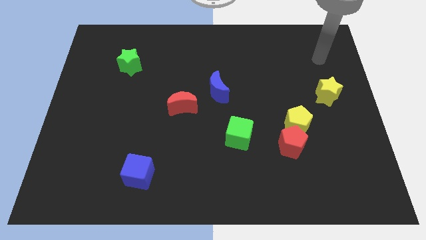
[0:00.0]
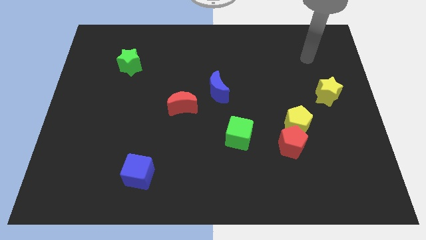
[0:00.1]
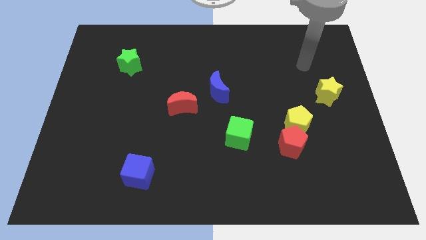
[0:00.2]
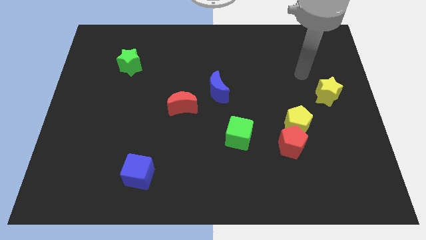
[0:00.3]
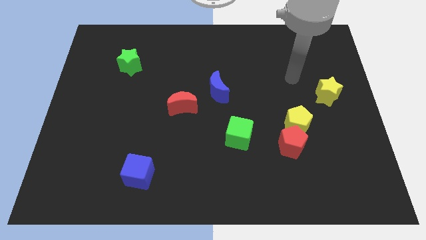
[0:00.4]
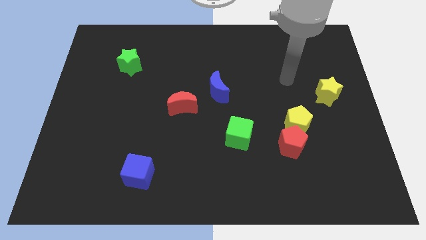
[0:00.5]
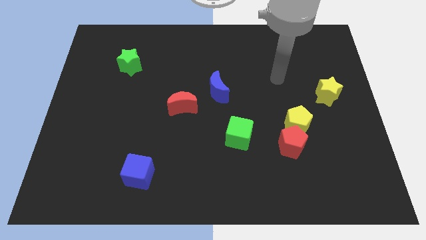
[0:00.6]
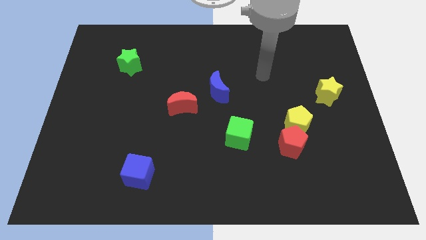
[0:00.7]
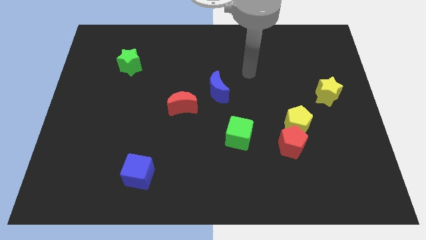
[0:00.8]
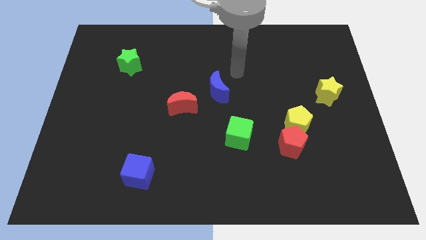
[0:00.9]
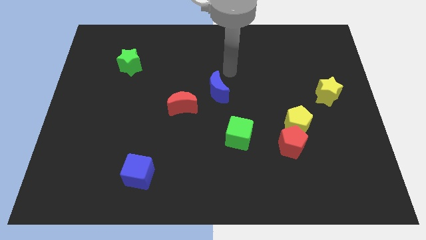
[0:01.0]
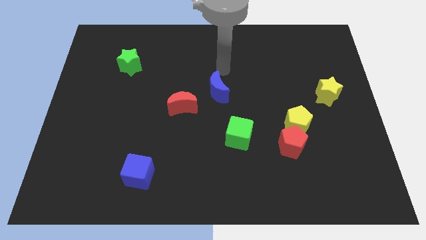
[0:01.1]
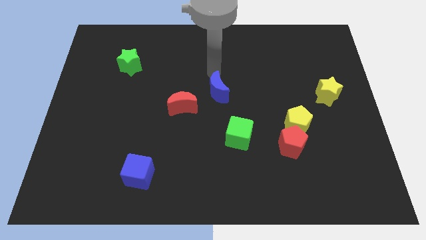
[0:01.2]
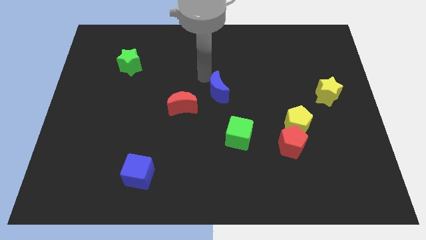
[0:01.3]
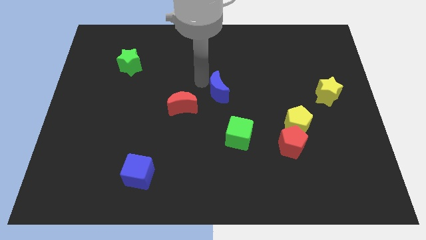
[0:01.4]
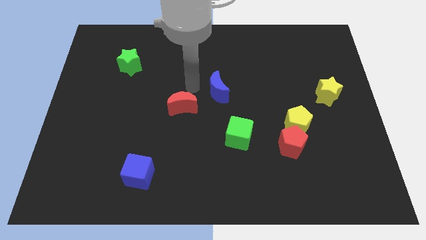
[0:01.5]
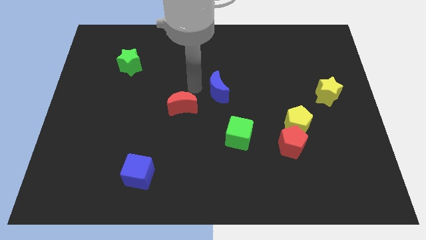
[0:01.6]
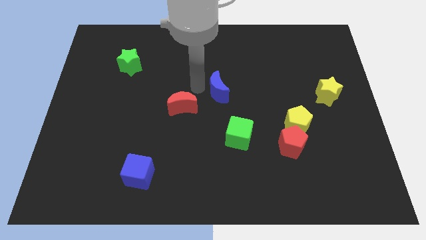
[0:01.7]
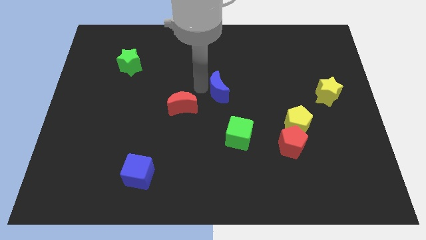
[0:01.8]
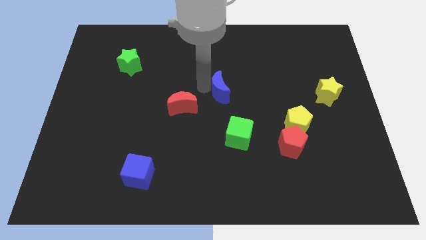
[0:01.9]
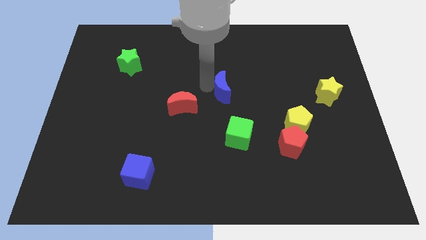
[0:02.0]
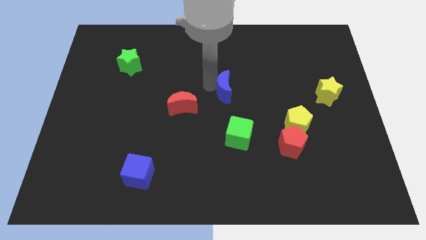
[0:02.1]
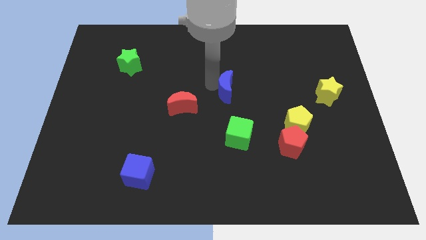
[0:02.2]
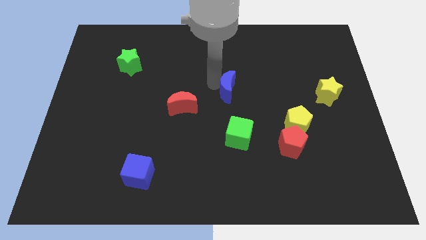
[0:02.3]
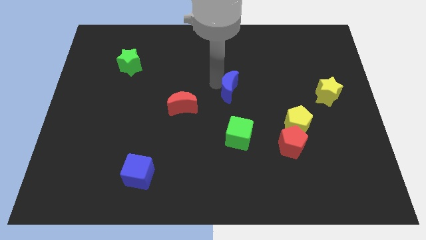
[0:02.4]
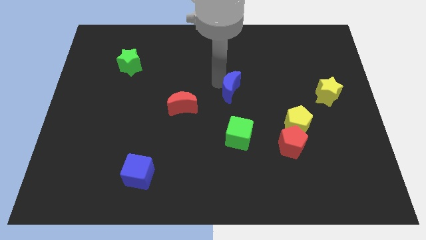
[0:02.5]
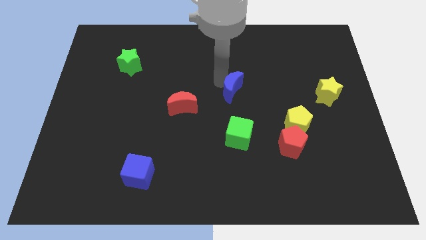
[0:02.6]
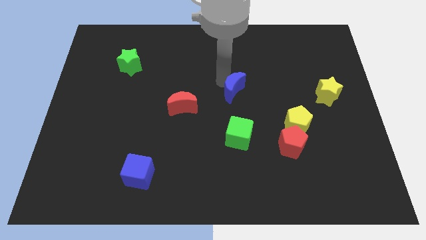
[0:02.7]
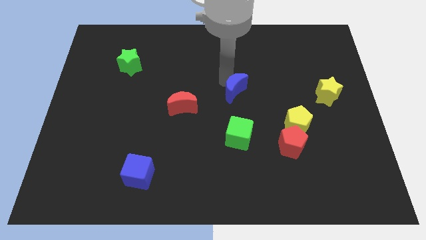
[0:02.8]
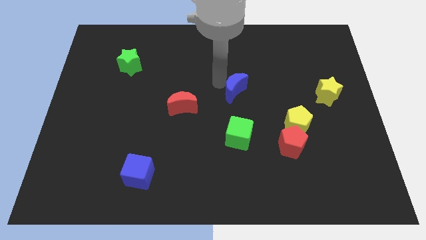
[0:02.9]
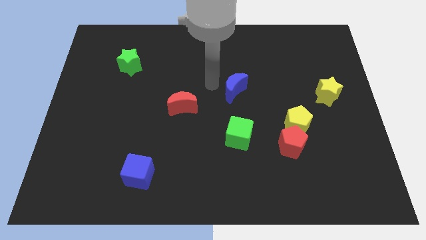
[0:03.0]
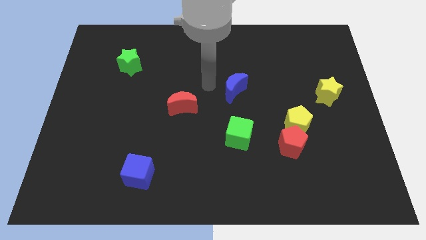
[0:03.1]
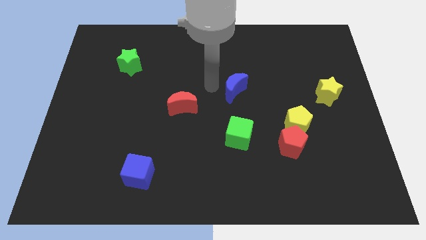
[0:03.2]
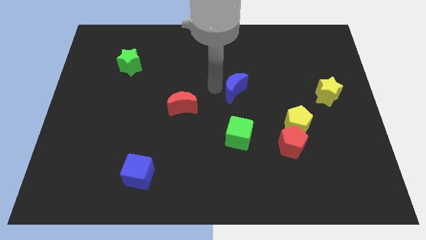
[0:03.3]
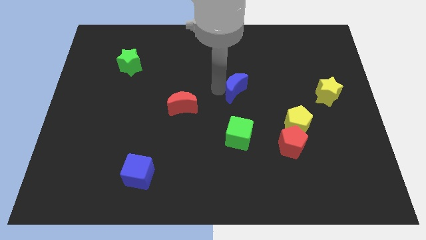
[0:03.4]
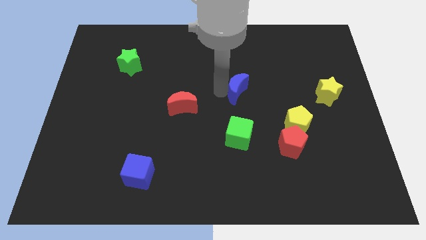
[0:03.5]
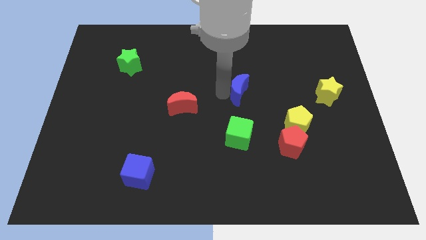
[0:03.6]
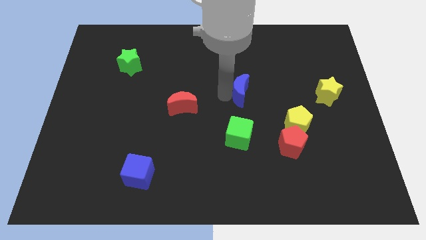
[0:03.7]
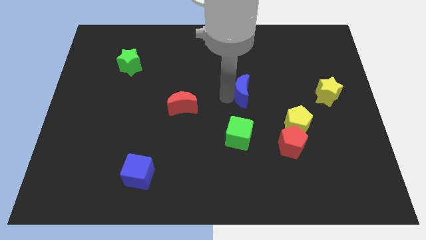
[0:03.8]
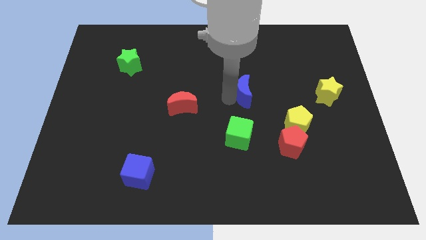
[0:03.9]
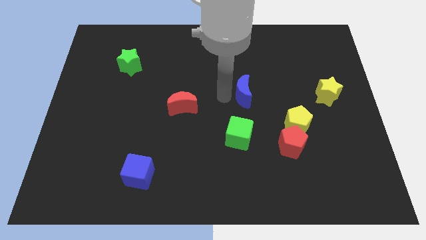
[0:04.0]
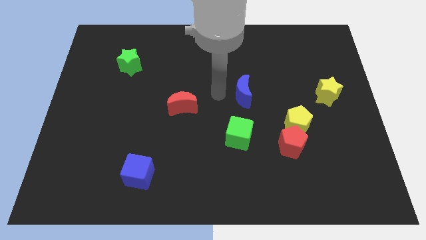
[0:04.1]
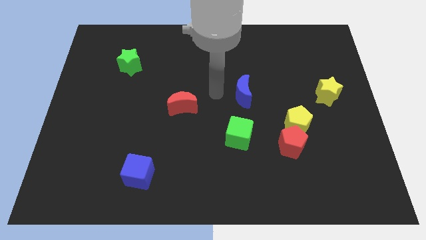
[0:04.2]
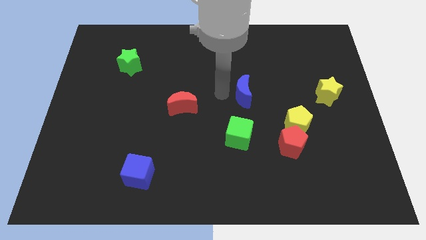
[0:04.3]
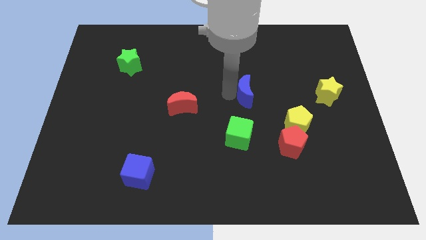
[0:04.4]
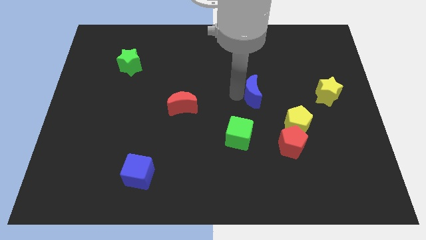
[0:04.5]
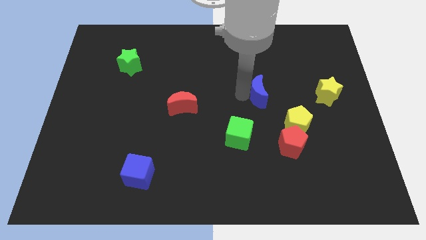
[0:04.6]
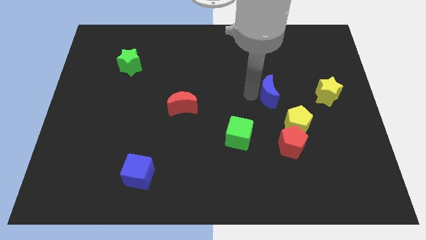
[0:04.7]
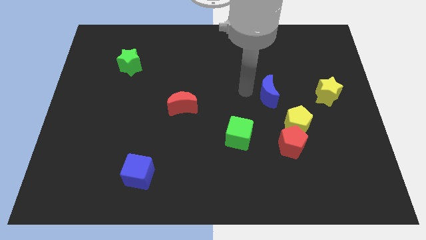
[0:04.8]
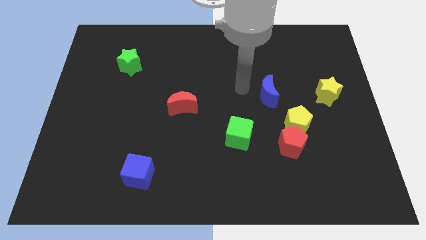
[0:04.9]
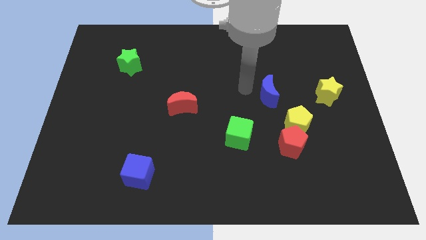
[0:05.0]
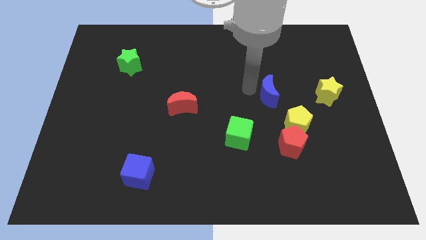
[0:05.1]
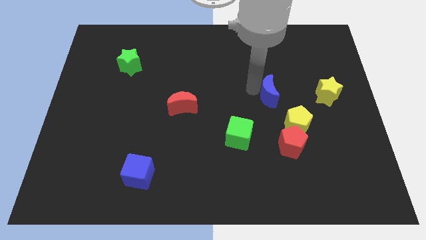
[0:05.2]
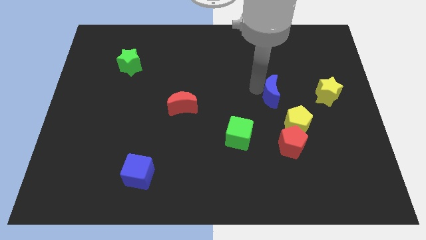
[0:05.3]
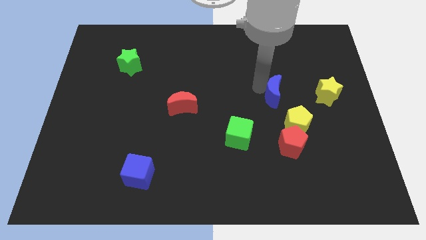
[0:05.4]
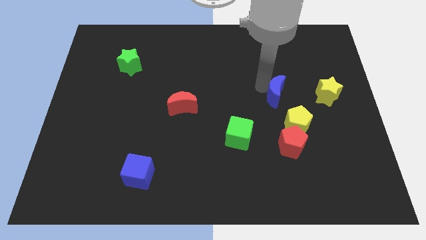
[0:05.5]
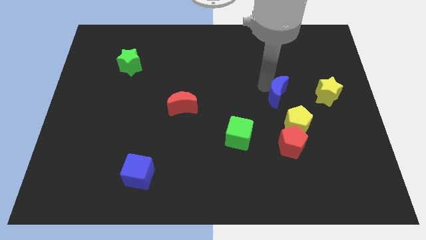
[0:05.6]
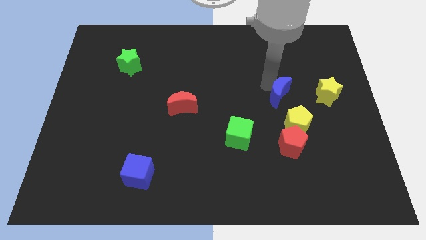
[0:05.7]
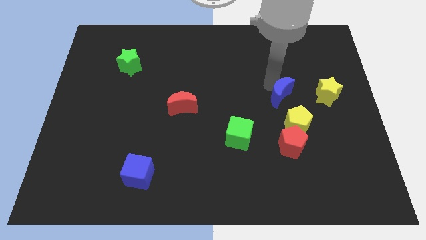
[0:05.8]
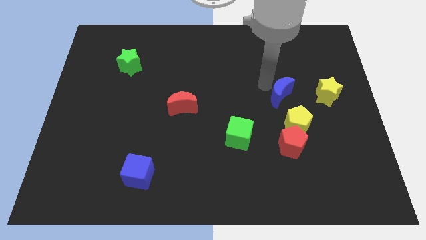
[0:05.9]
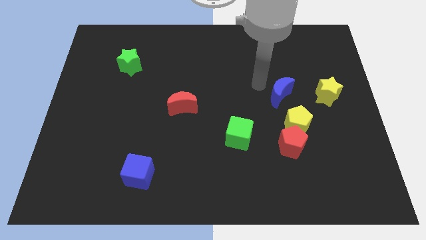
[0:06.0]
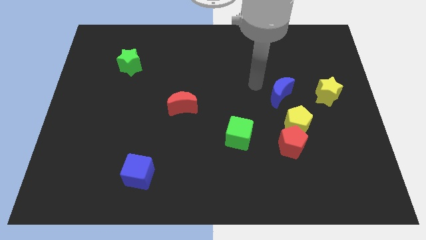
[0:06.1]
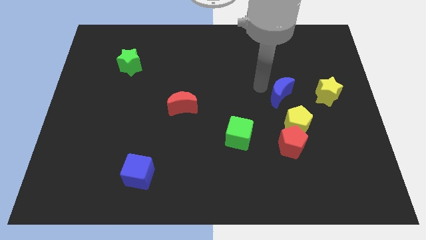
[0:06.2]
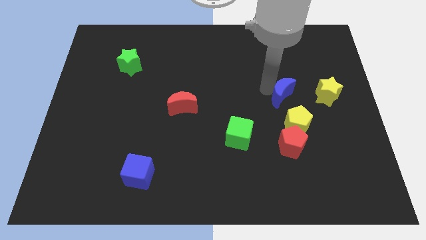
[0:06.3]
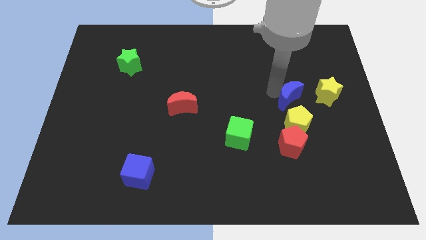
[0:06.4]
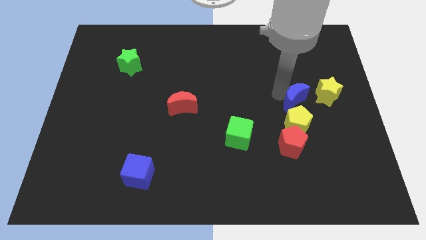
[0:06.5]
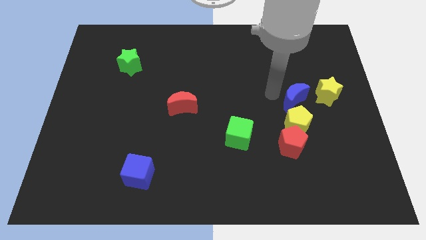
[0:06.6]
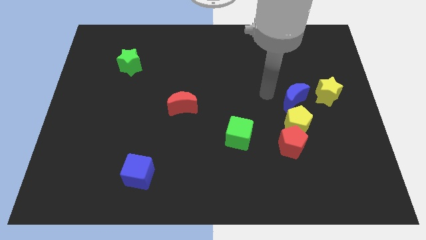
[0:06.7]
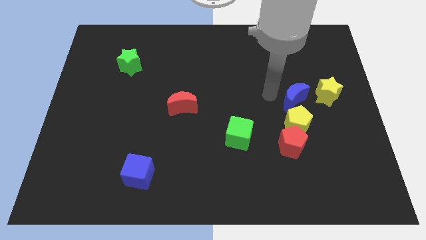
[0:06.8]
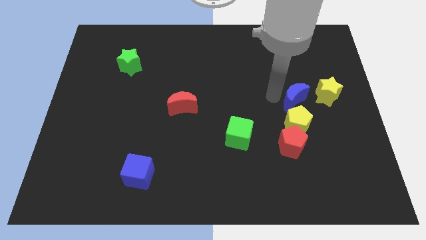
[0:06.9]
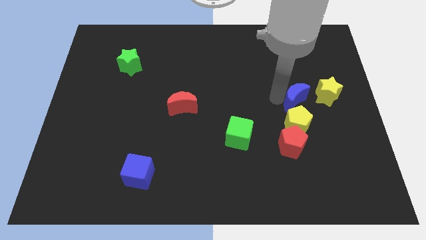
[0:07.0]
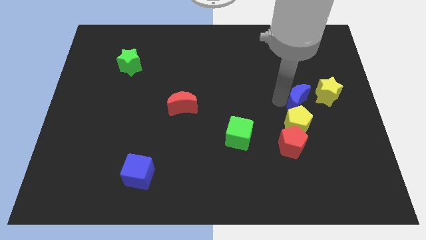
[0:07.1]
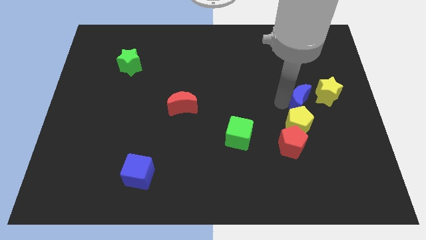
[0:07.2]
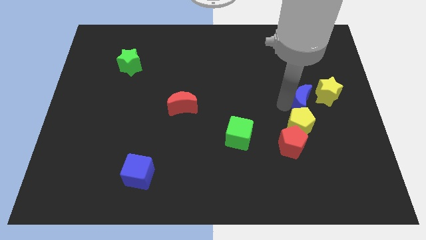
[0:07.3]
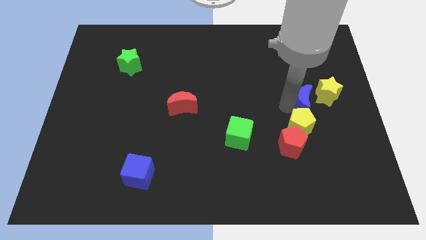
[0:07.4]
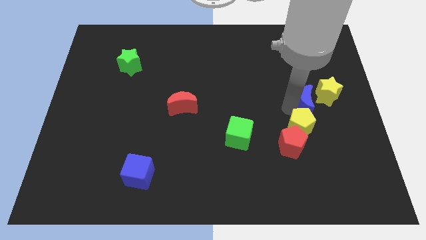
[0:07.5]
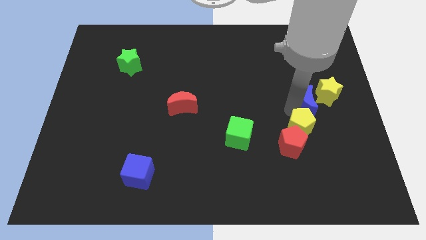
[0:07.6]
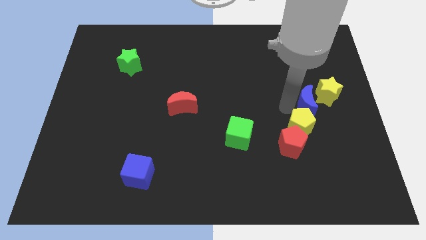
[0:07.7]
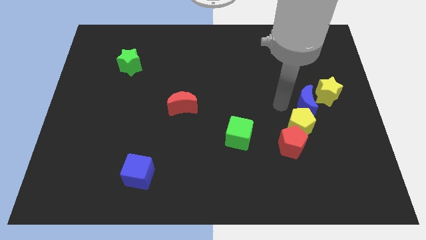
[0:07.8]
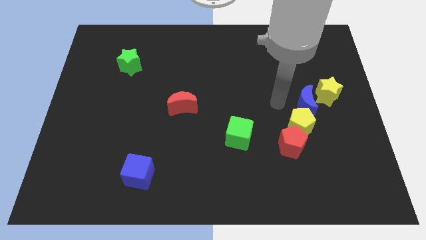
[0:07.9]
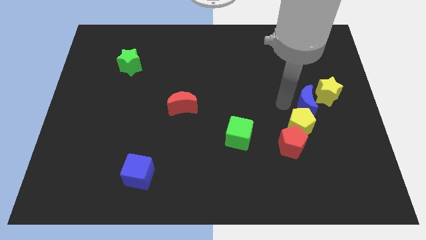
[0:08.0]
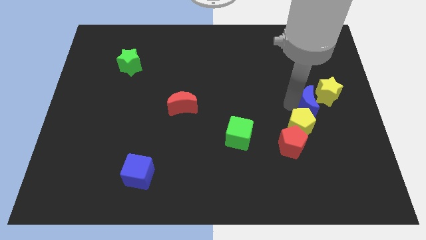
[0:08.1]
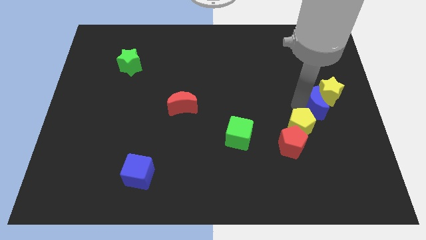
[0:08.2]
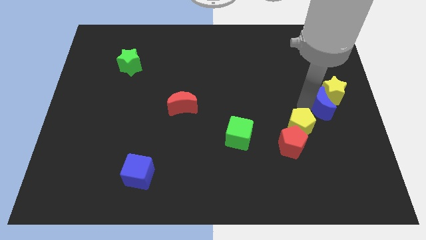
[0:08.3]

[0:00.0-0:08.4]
move the blue moon to the right side of the board
